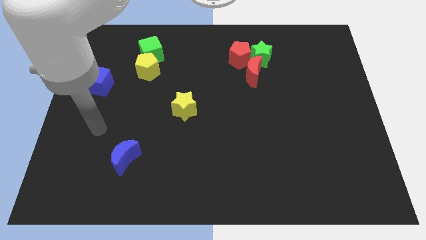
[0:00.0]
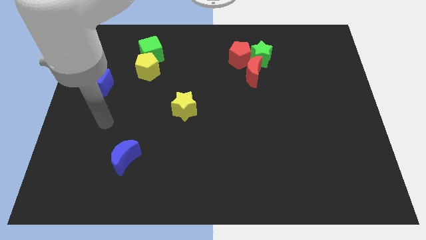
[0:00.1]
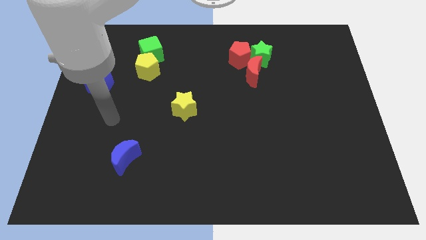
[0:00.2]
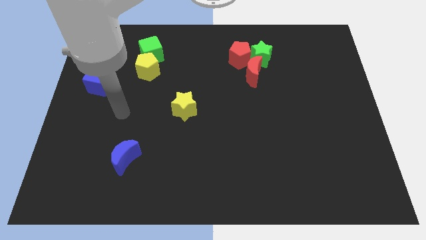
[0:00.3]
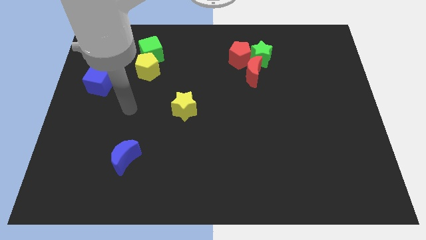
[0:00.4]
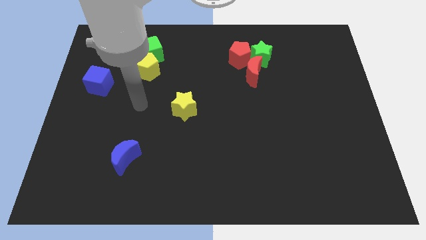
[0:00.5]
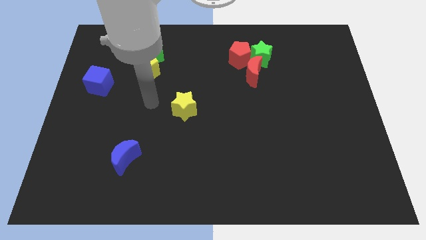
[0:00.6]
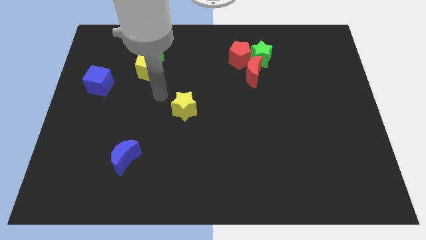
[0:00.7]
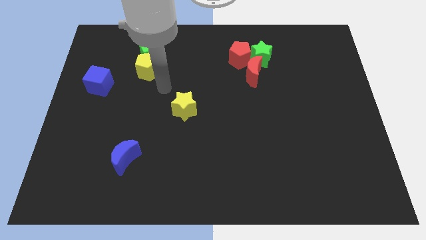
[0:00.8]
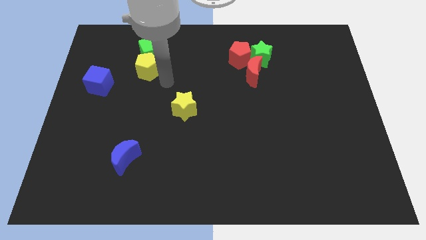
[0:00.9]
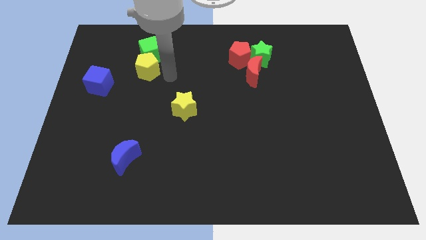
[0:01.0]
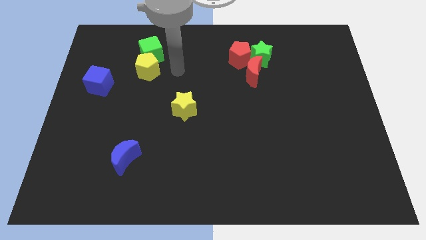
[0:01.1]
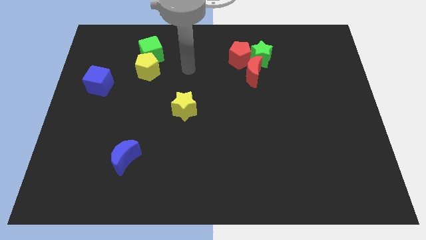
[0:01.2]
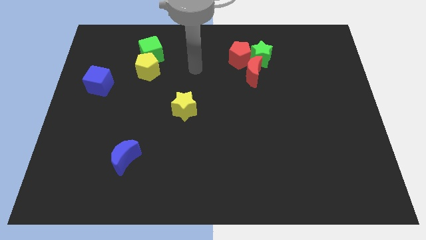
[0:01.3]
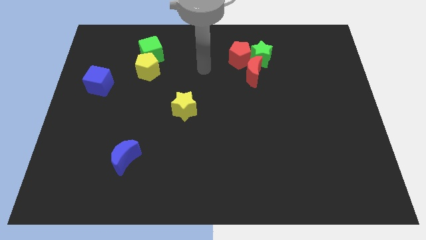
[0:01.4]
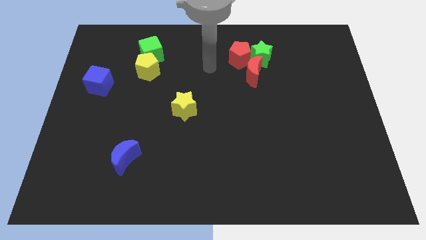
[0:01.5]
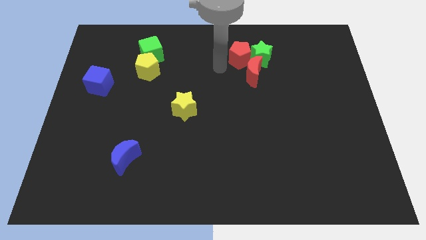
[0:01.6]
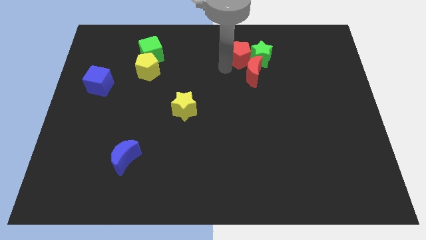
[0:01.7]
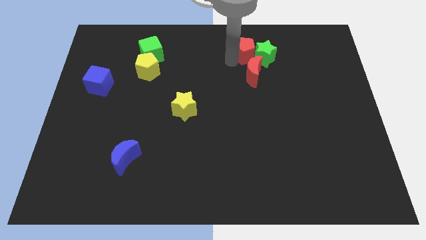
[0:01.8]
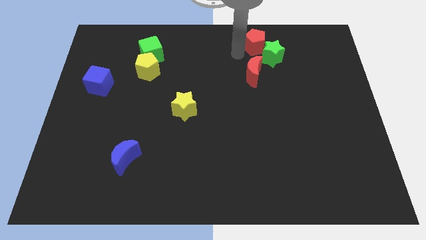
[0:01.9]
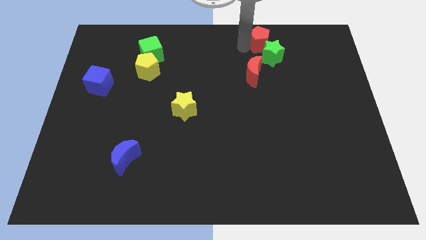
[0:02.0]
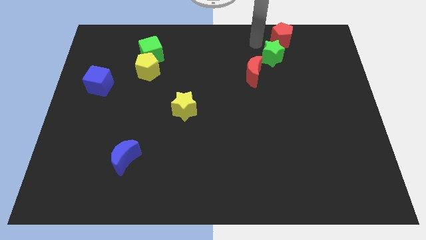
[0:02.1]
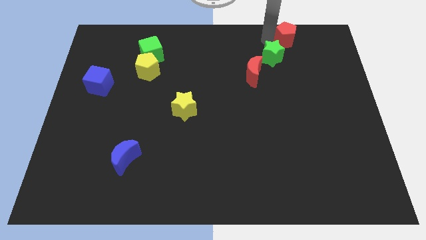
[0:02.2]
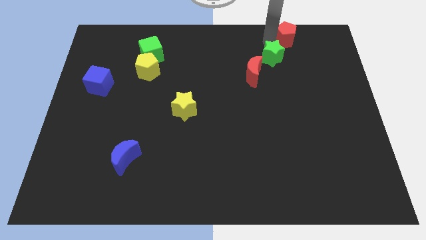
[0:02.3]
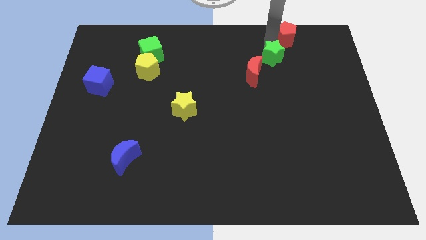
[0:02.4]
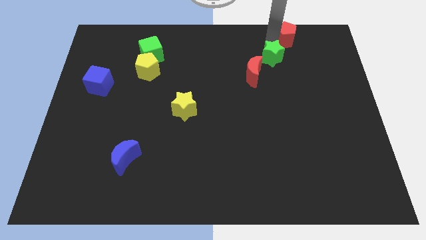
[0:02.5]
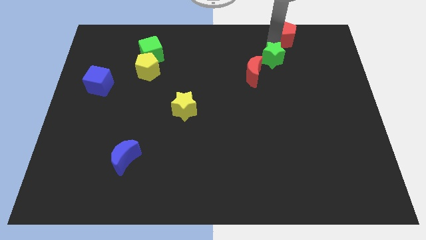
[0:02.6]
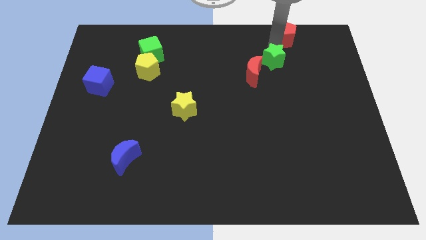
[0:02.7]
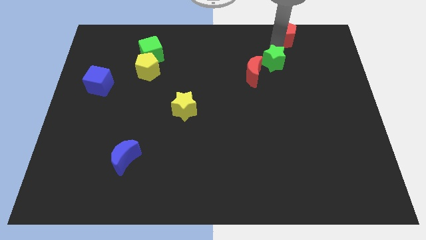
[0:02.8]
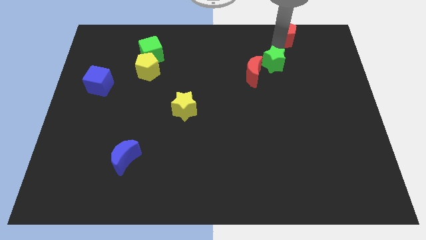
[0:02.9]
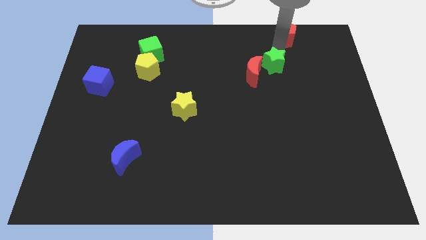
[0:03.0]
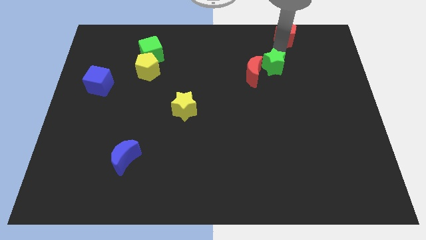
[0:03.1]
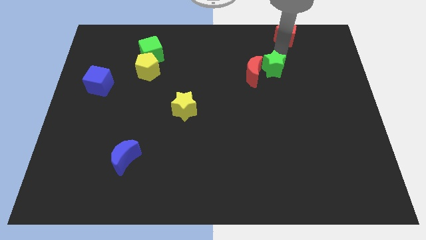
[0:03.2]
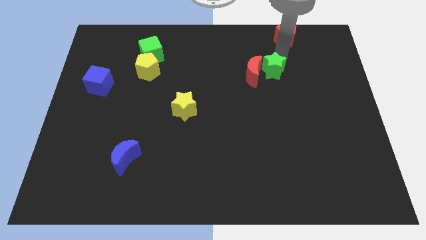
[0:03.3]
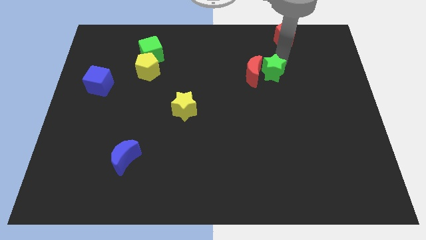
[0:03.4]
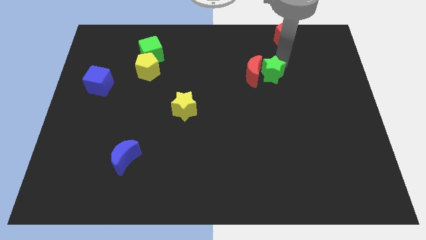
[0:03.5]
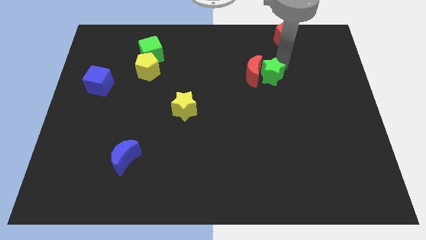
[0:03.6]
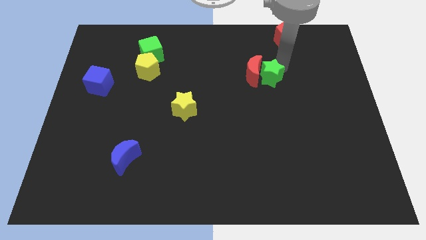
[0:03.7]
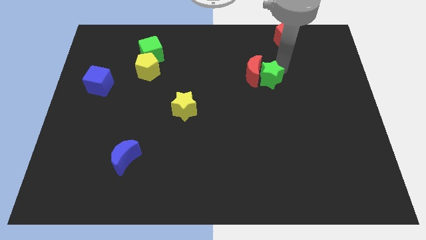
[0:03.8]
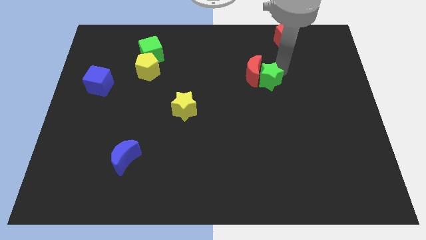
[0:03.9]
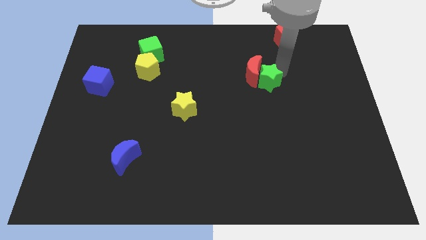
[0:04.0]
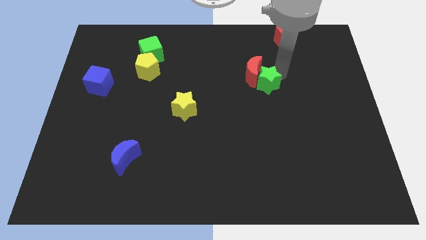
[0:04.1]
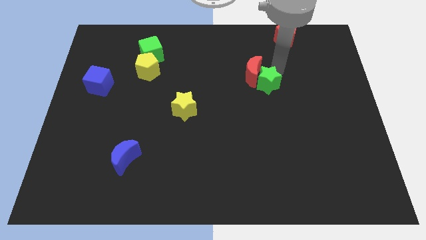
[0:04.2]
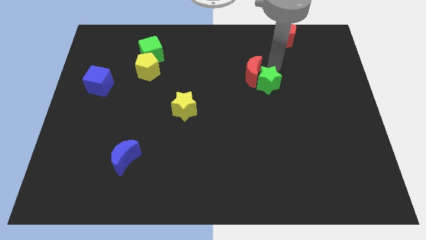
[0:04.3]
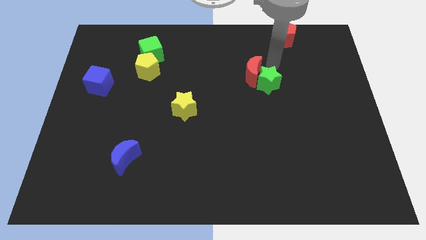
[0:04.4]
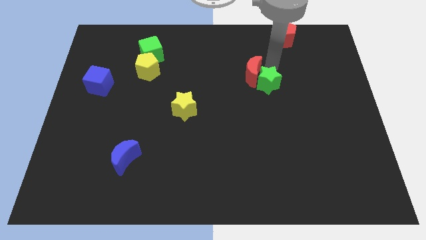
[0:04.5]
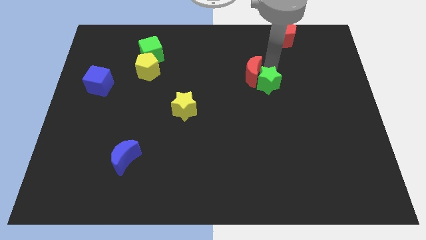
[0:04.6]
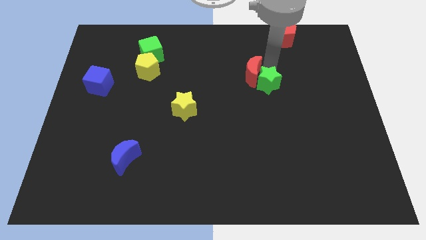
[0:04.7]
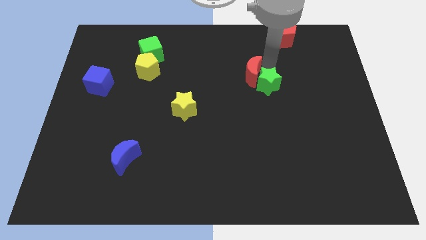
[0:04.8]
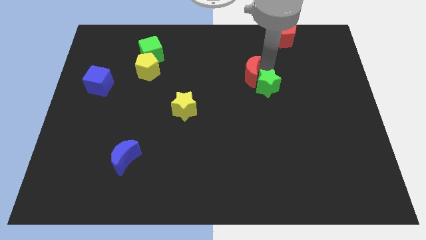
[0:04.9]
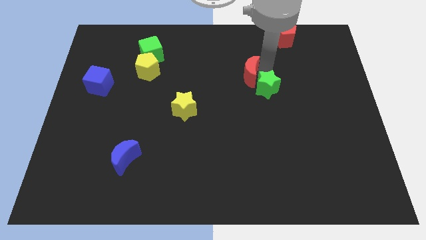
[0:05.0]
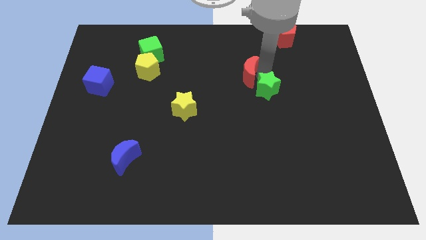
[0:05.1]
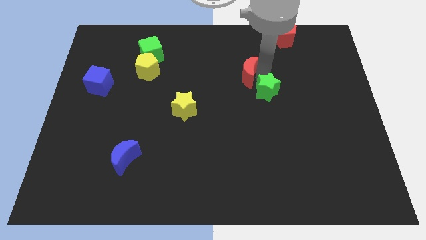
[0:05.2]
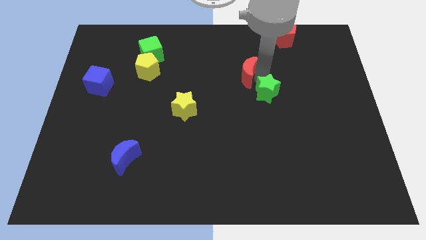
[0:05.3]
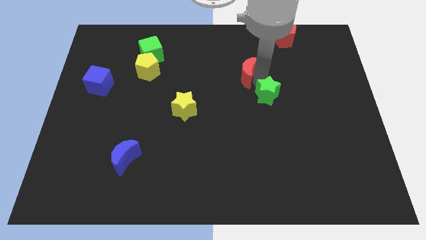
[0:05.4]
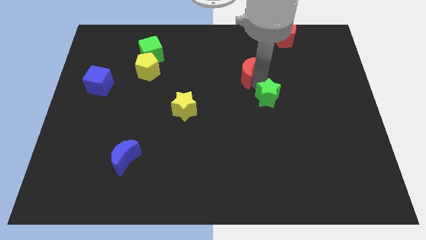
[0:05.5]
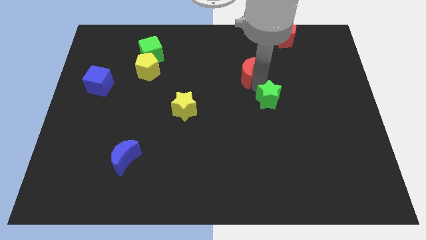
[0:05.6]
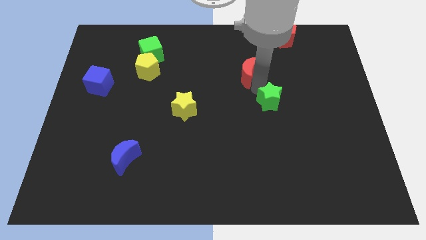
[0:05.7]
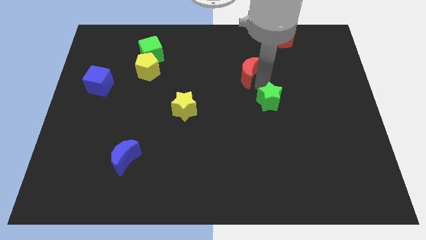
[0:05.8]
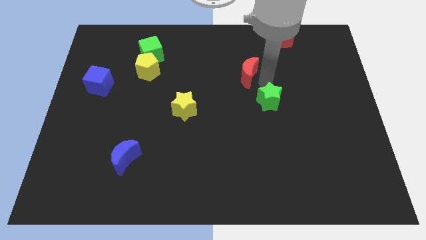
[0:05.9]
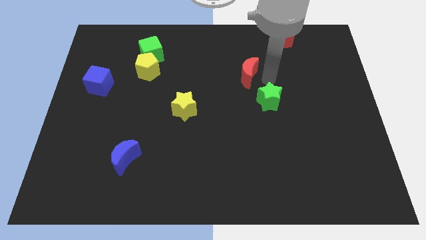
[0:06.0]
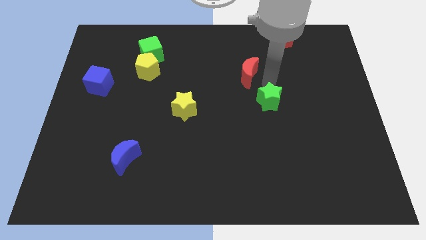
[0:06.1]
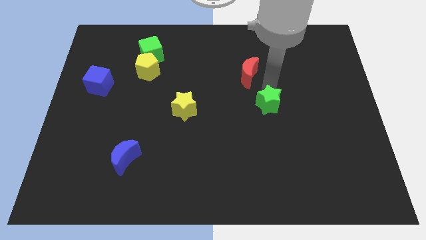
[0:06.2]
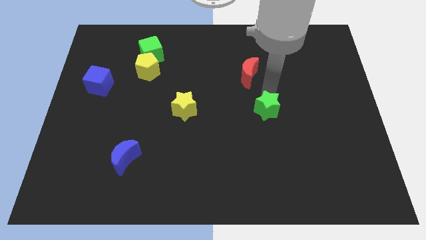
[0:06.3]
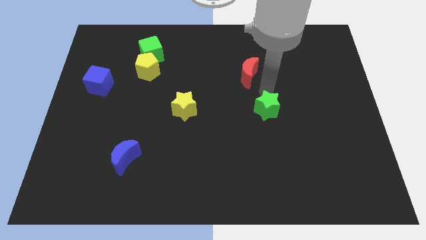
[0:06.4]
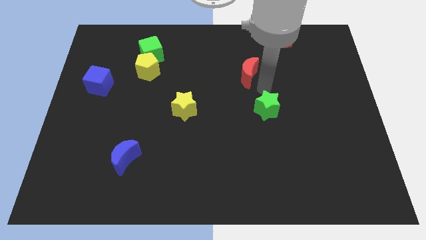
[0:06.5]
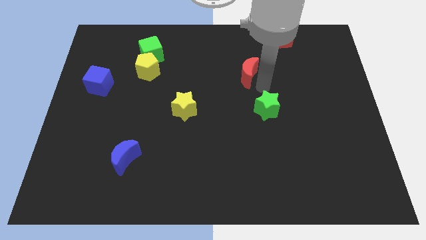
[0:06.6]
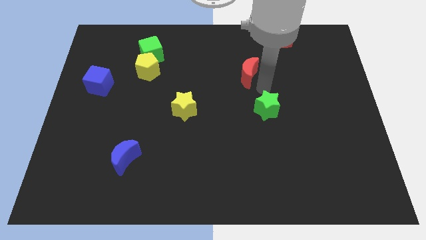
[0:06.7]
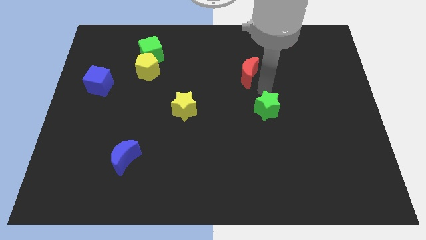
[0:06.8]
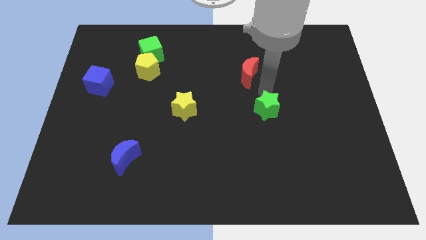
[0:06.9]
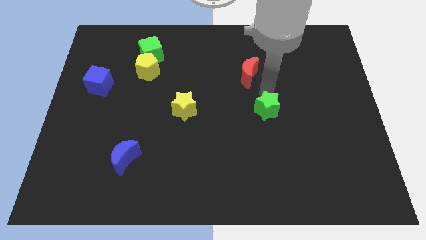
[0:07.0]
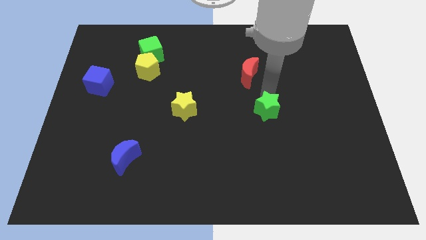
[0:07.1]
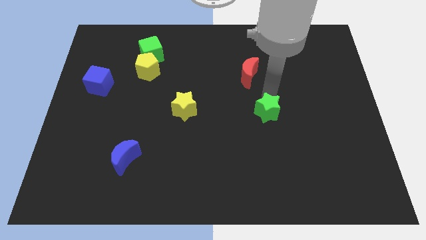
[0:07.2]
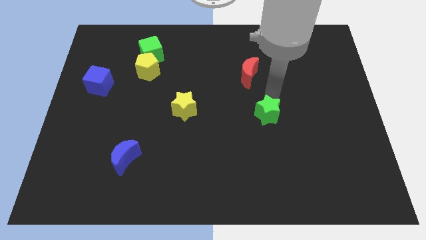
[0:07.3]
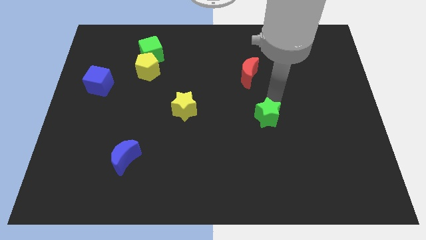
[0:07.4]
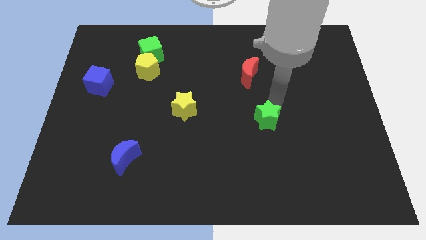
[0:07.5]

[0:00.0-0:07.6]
move the green star downwards

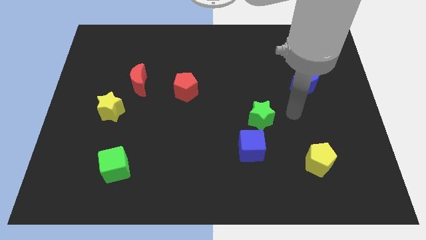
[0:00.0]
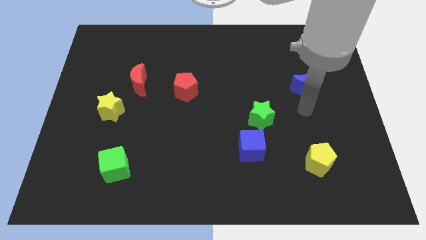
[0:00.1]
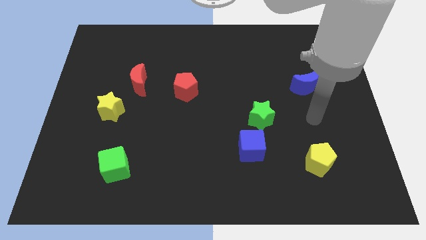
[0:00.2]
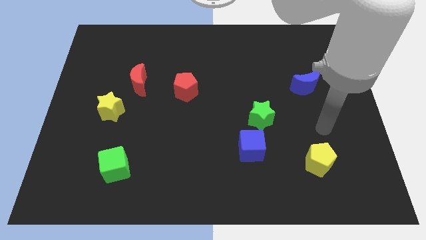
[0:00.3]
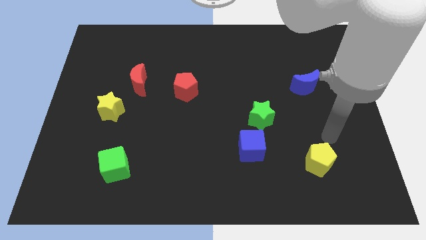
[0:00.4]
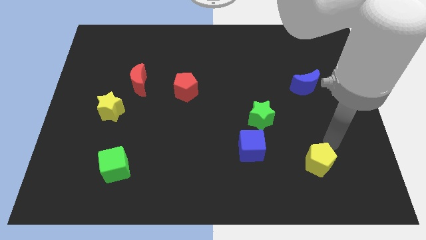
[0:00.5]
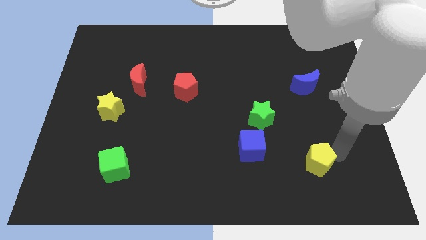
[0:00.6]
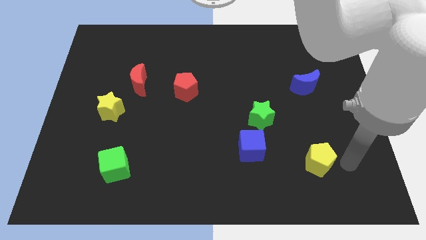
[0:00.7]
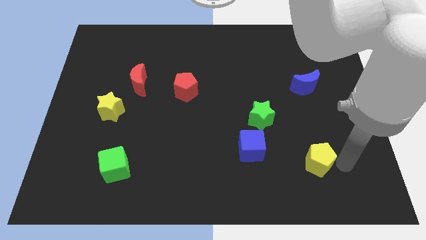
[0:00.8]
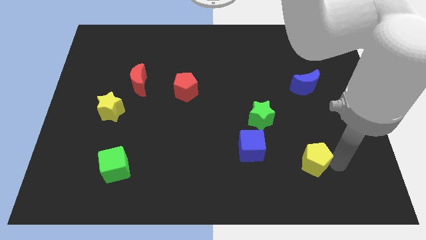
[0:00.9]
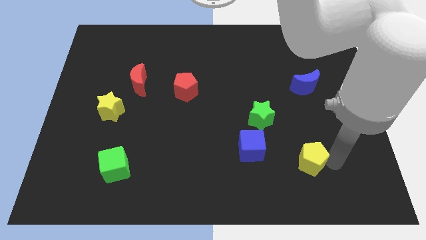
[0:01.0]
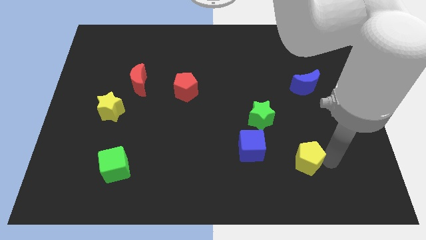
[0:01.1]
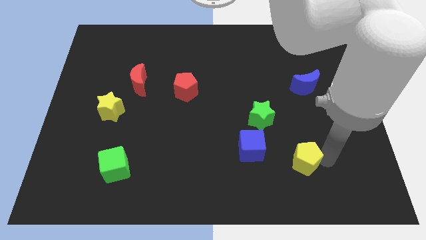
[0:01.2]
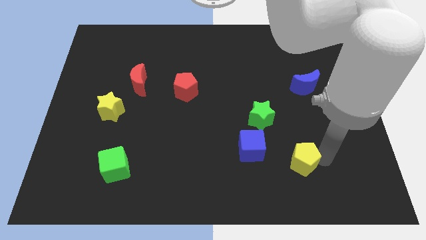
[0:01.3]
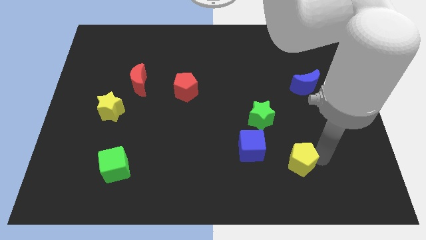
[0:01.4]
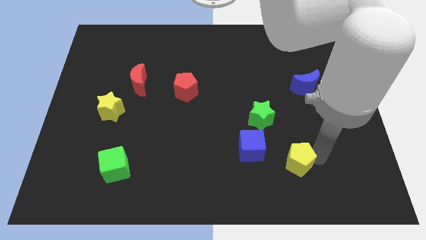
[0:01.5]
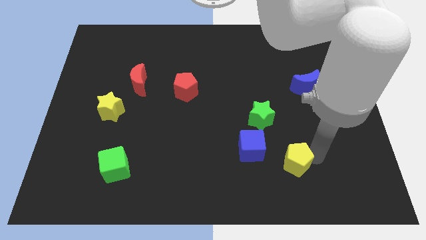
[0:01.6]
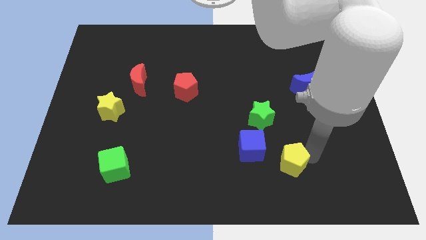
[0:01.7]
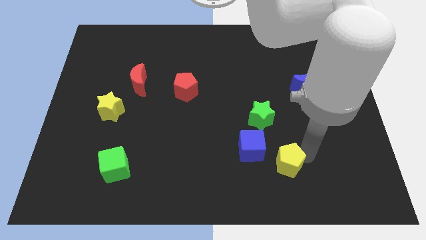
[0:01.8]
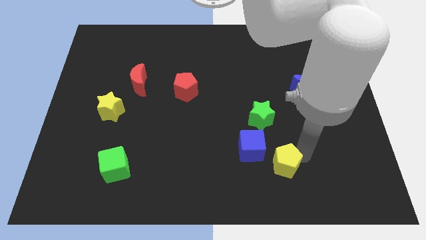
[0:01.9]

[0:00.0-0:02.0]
push the yellow pentagon a little to the left
